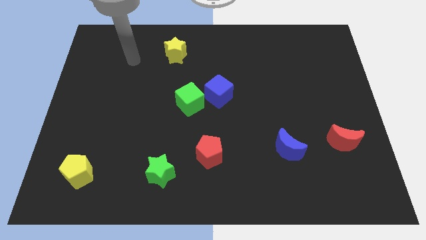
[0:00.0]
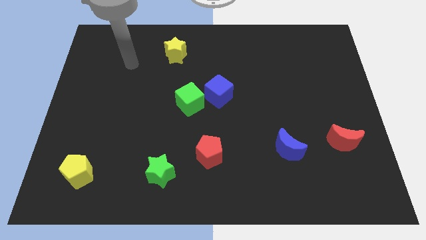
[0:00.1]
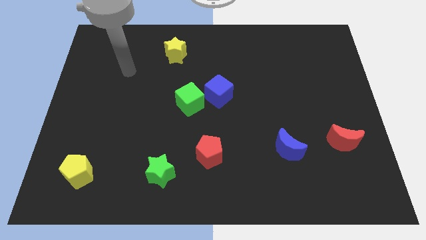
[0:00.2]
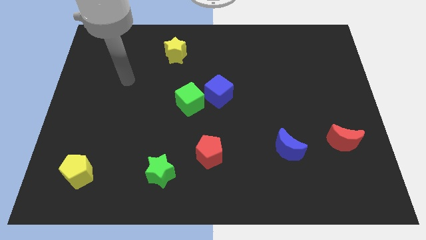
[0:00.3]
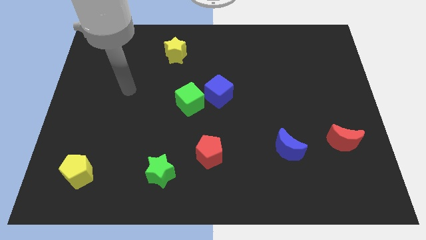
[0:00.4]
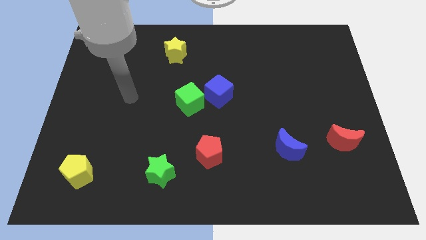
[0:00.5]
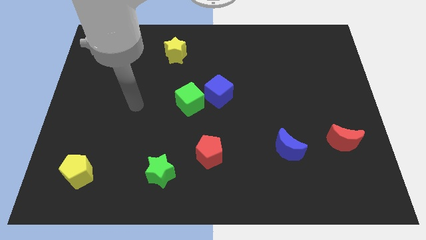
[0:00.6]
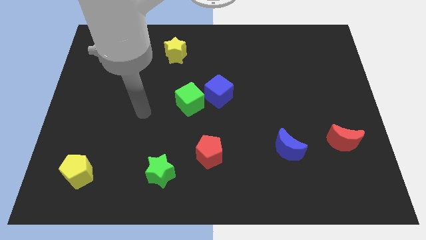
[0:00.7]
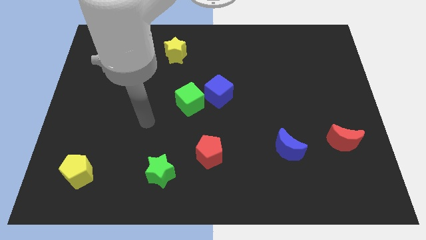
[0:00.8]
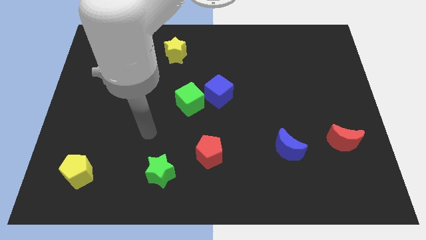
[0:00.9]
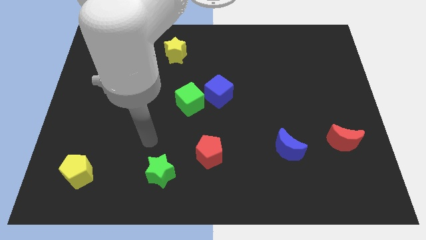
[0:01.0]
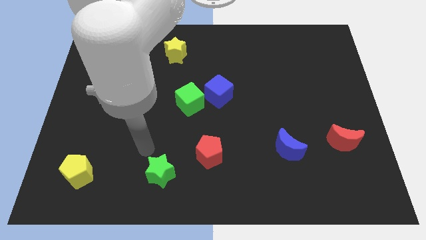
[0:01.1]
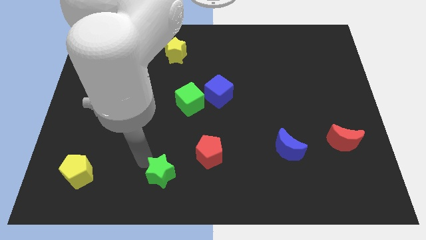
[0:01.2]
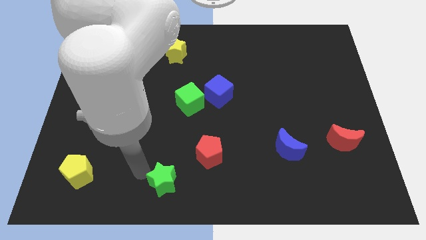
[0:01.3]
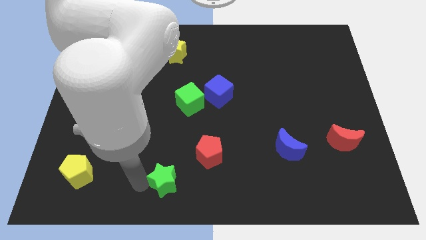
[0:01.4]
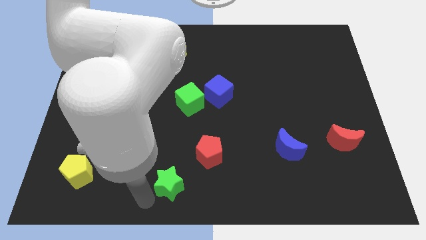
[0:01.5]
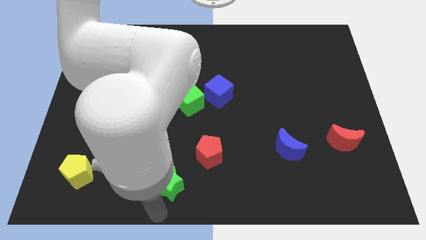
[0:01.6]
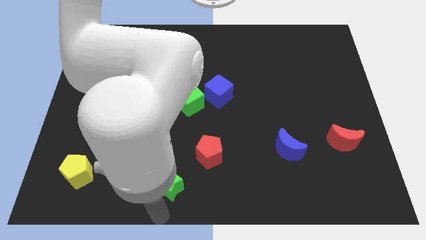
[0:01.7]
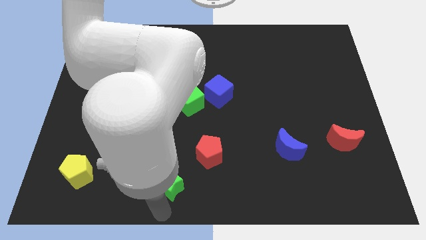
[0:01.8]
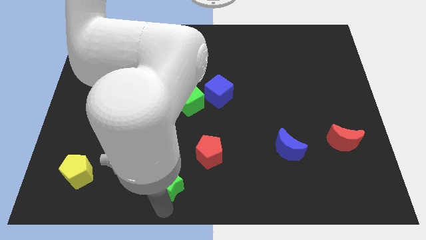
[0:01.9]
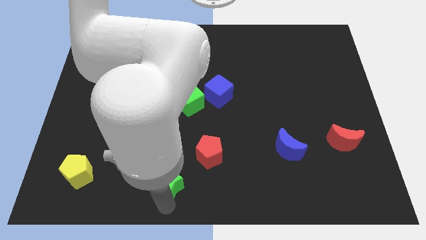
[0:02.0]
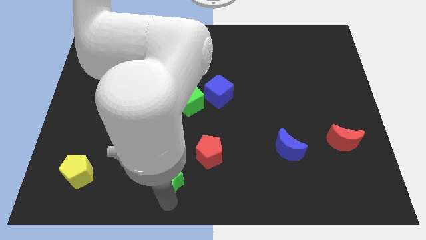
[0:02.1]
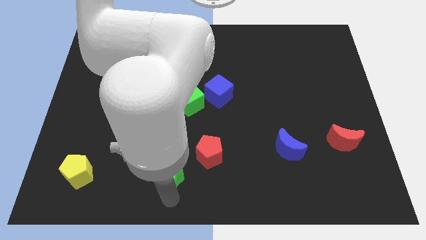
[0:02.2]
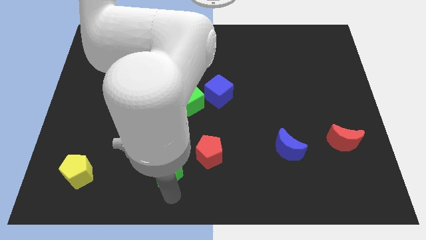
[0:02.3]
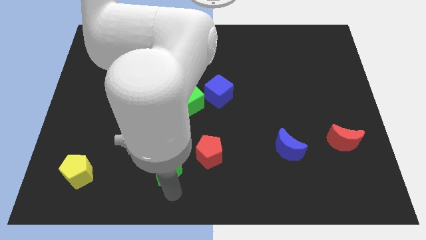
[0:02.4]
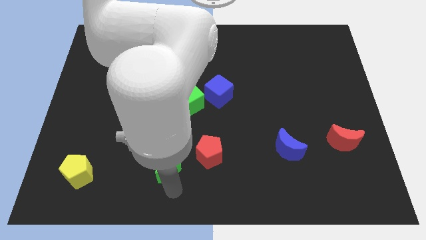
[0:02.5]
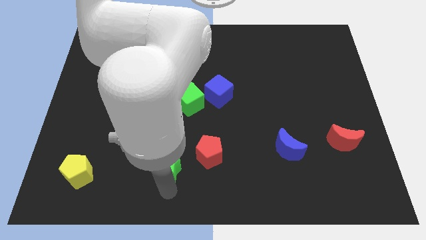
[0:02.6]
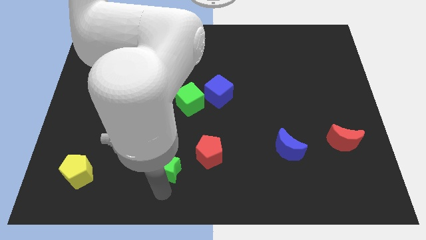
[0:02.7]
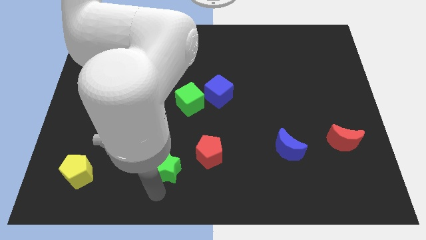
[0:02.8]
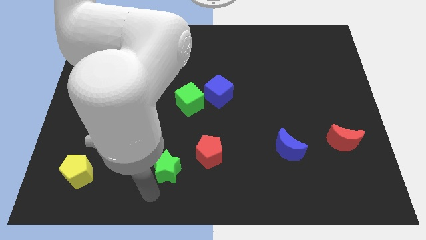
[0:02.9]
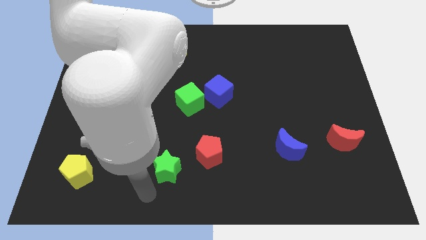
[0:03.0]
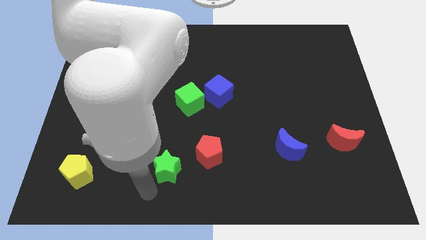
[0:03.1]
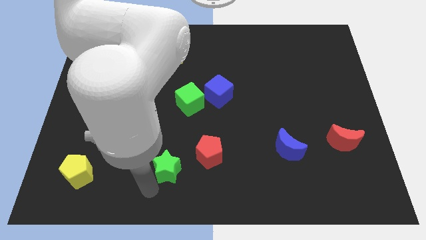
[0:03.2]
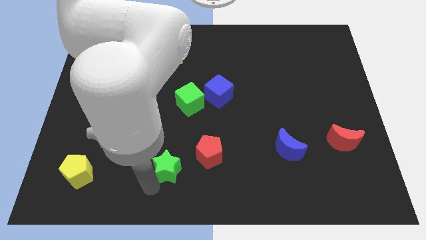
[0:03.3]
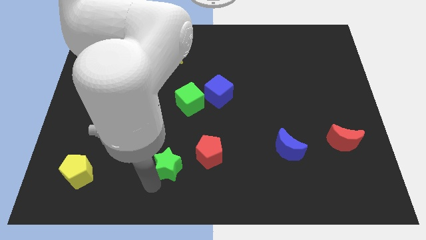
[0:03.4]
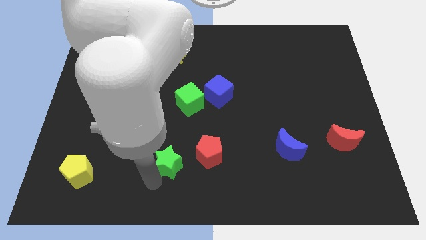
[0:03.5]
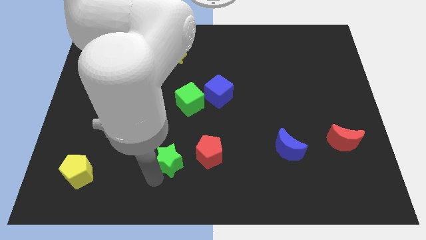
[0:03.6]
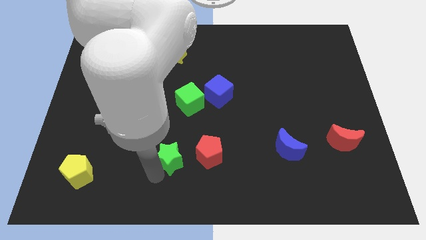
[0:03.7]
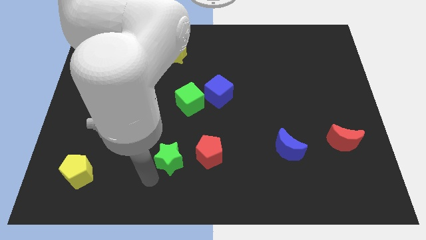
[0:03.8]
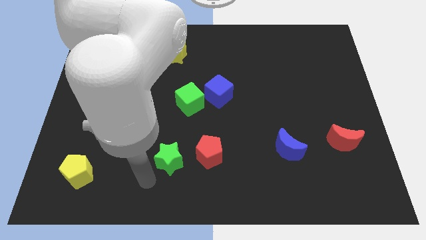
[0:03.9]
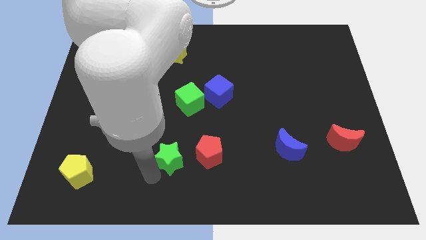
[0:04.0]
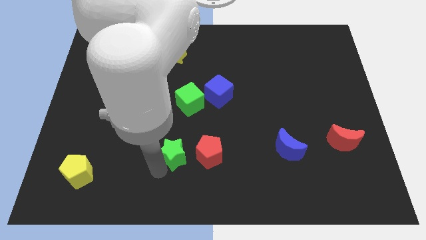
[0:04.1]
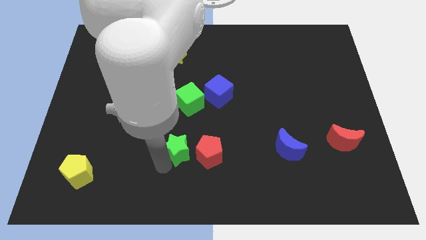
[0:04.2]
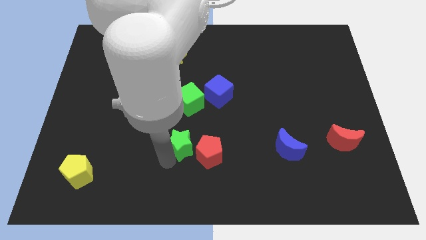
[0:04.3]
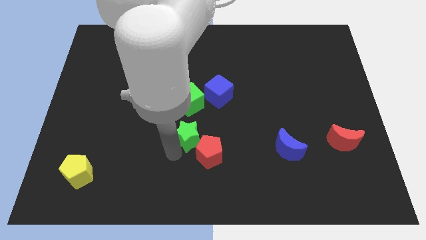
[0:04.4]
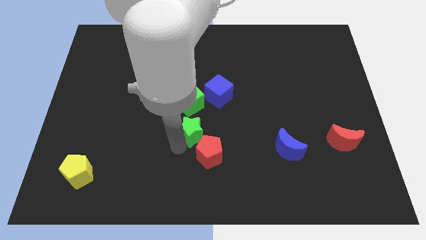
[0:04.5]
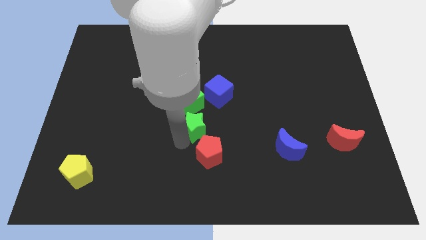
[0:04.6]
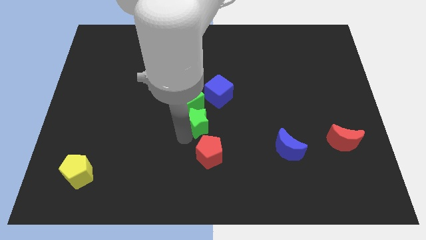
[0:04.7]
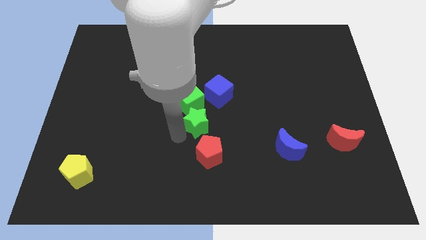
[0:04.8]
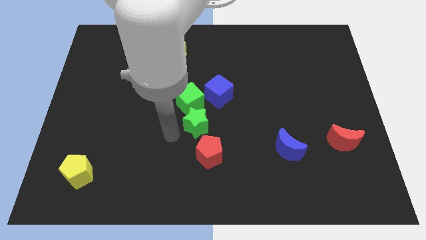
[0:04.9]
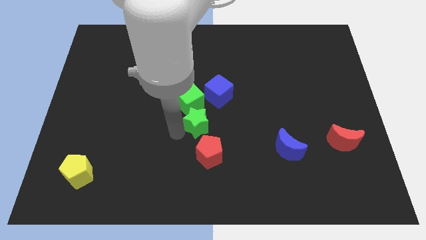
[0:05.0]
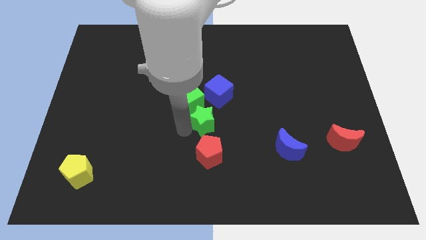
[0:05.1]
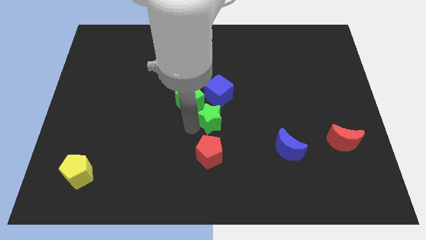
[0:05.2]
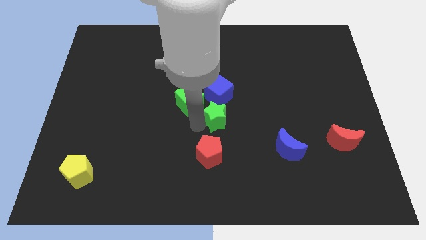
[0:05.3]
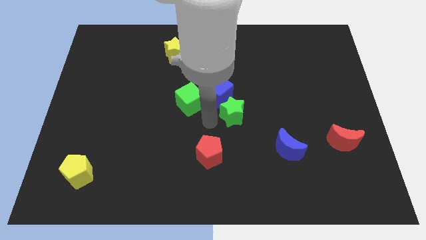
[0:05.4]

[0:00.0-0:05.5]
push the green star up and to the right

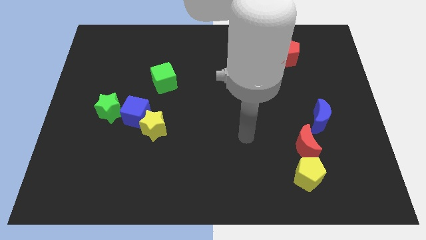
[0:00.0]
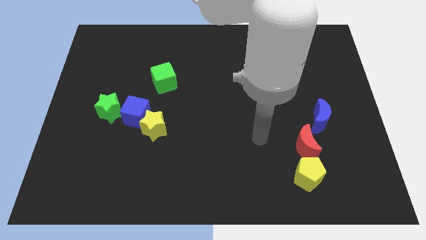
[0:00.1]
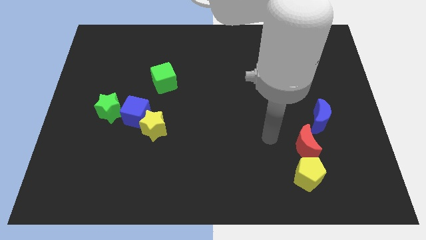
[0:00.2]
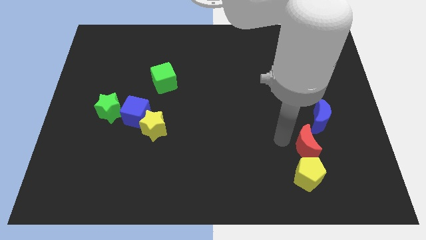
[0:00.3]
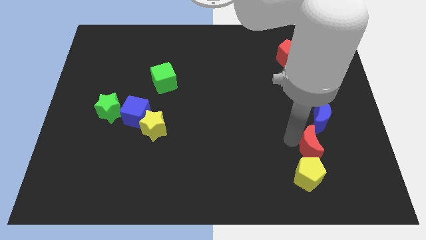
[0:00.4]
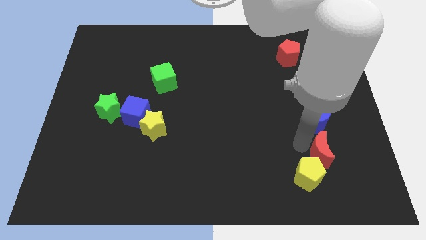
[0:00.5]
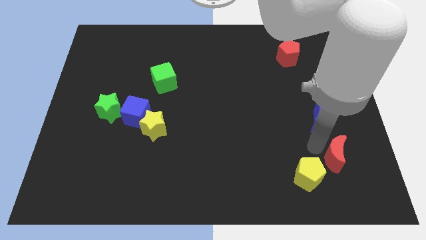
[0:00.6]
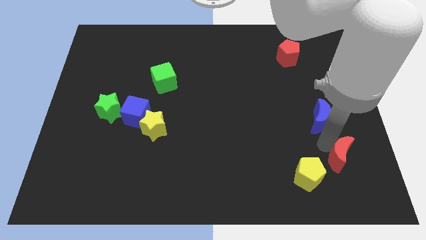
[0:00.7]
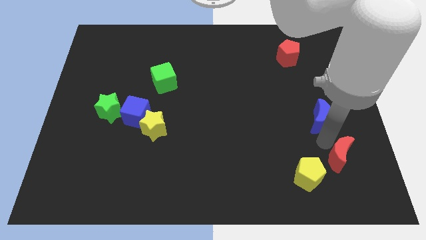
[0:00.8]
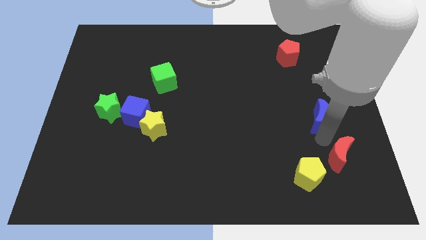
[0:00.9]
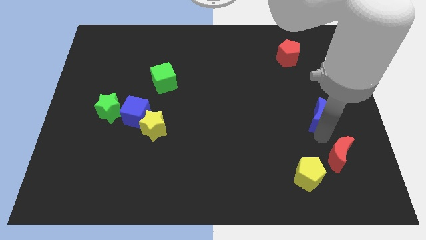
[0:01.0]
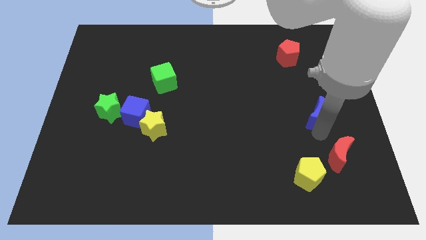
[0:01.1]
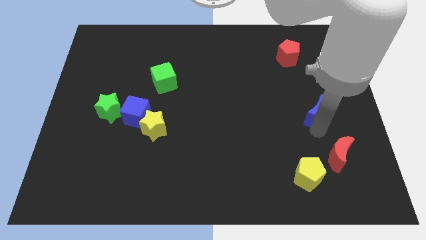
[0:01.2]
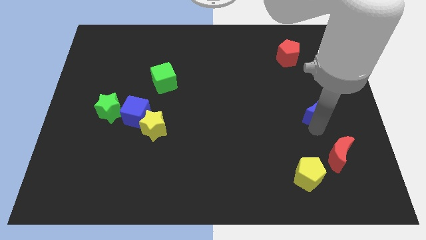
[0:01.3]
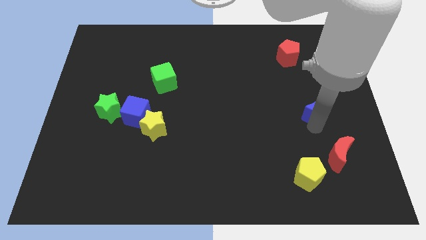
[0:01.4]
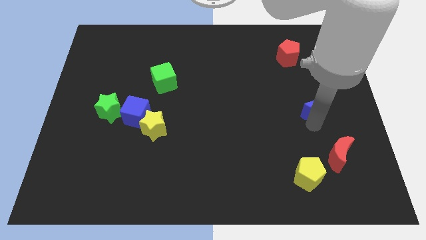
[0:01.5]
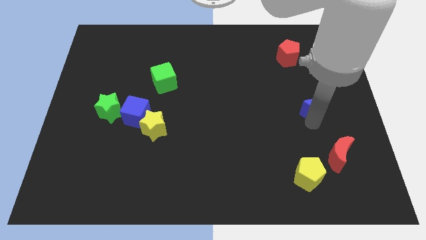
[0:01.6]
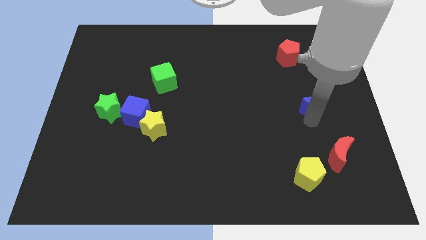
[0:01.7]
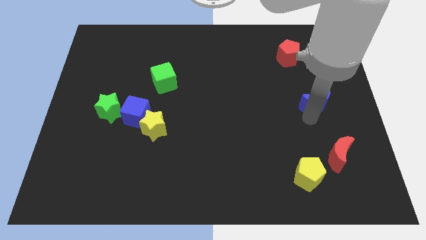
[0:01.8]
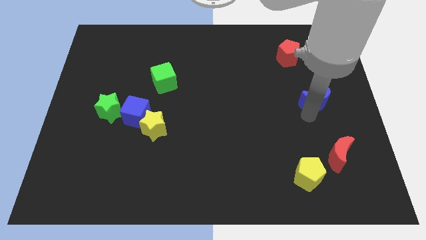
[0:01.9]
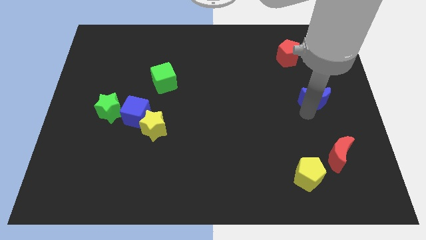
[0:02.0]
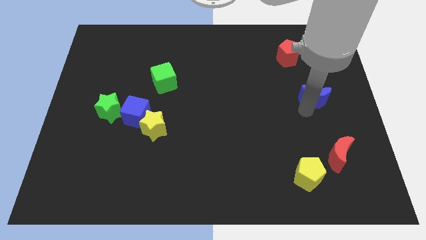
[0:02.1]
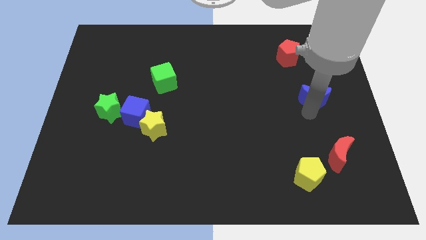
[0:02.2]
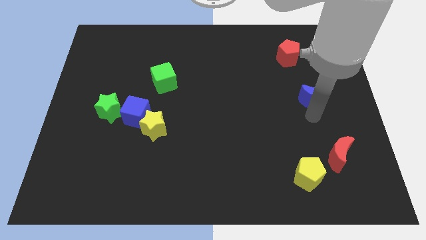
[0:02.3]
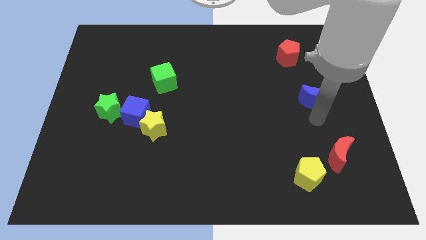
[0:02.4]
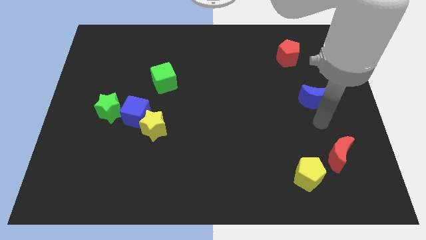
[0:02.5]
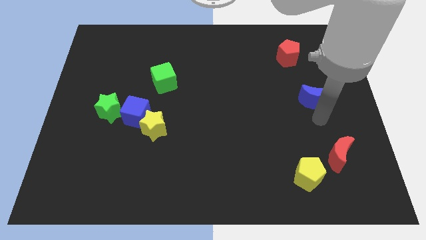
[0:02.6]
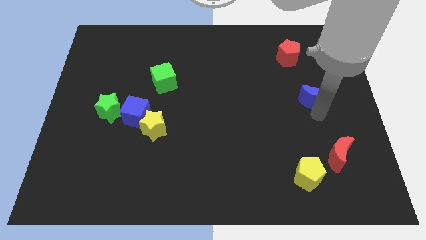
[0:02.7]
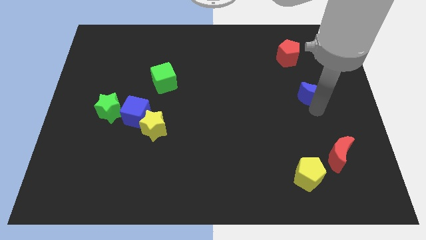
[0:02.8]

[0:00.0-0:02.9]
slide the blue moon a little bit up

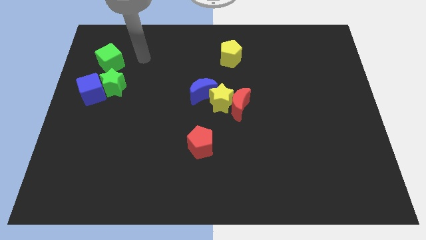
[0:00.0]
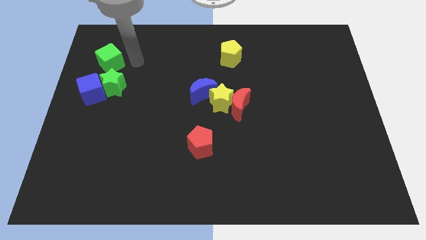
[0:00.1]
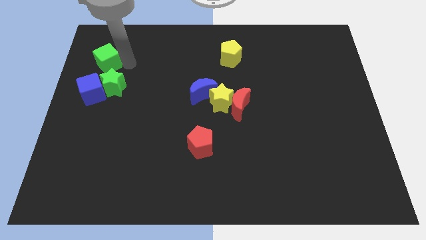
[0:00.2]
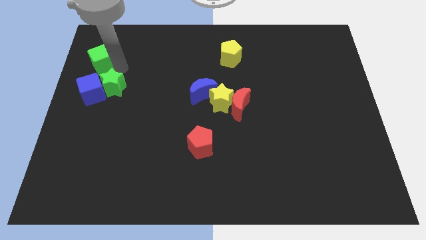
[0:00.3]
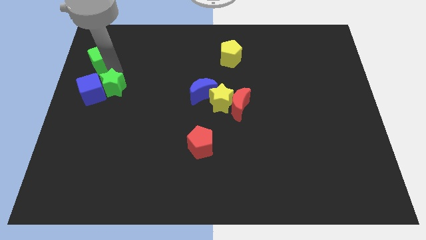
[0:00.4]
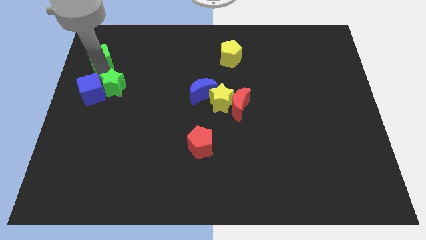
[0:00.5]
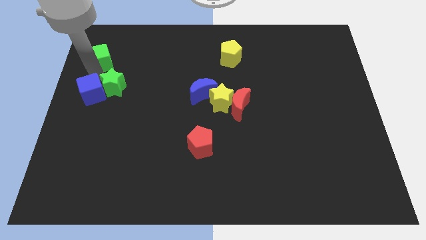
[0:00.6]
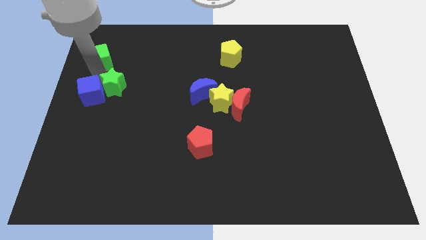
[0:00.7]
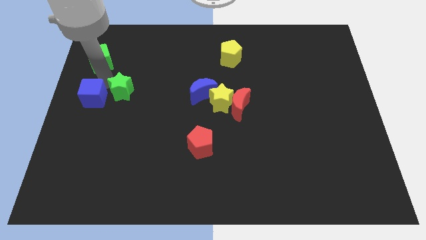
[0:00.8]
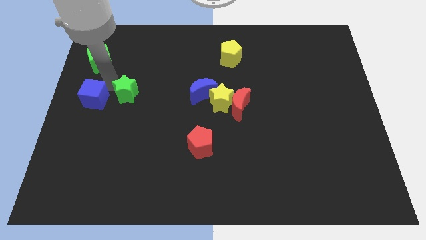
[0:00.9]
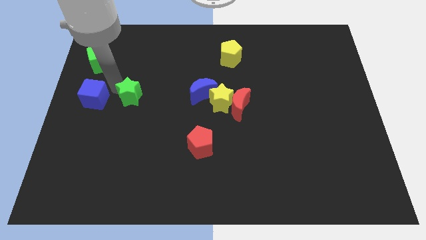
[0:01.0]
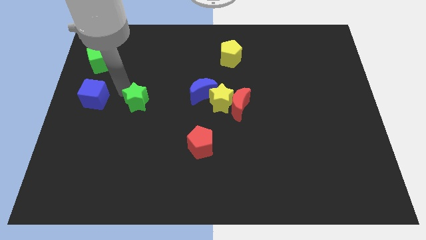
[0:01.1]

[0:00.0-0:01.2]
push the green star a little bit down and right diagonally
